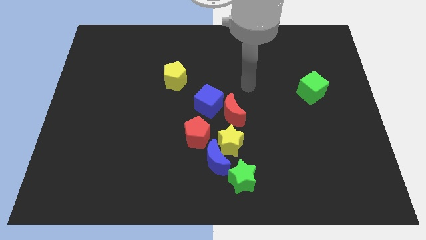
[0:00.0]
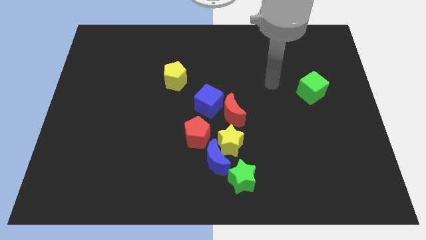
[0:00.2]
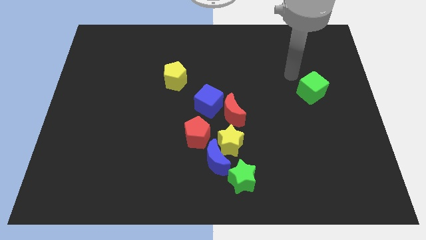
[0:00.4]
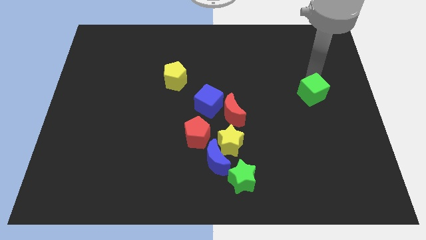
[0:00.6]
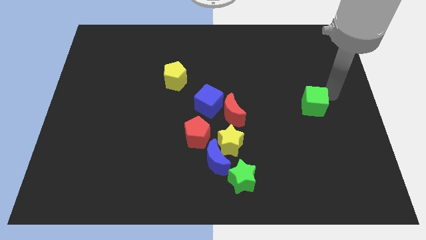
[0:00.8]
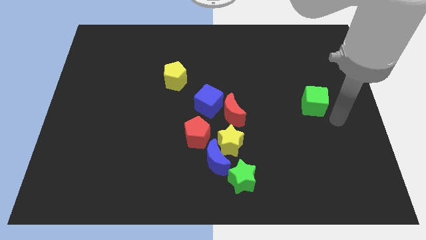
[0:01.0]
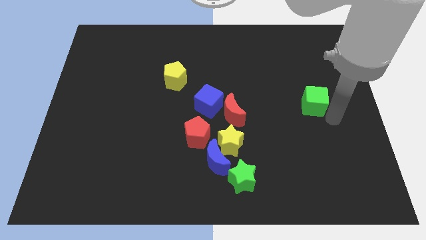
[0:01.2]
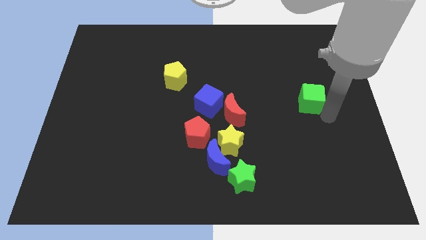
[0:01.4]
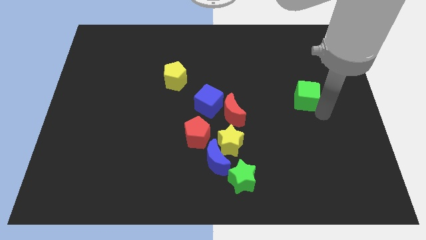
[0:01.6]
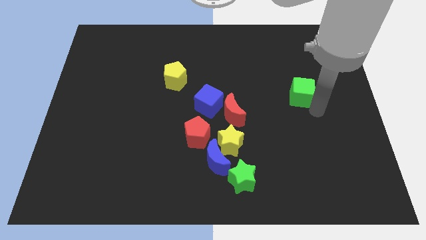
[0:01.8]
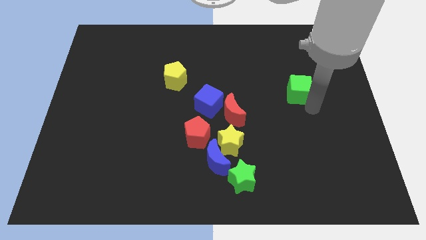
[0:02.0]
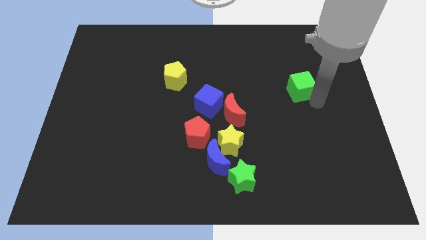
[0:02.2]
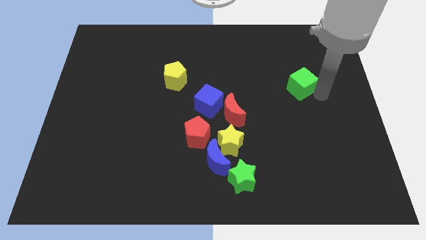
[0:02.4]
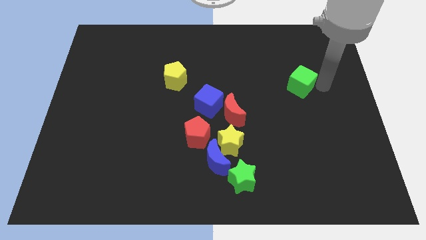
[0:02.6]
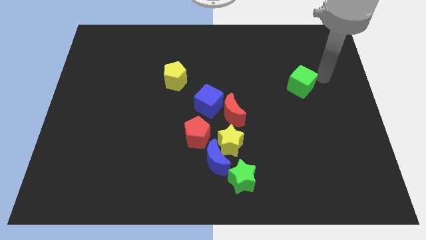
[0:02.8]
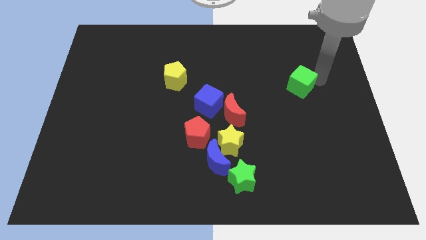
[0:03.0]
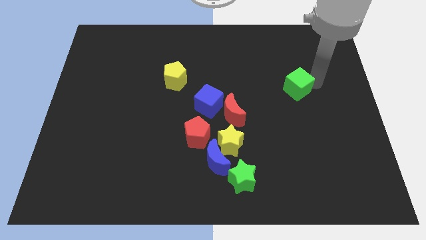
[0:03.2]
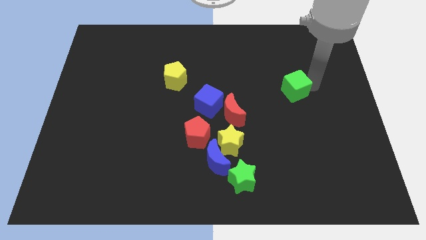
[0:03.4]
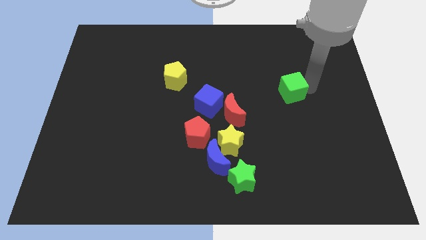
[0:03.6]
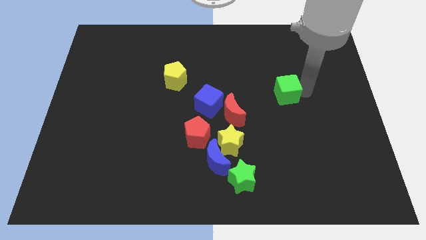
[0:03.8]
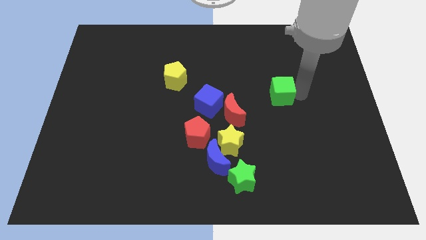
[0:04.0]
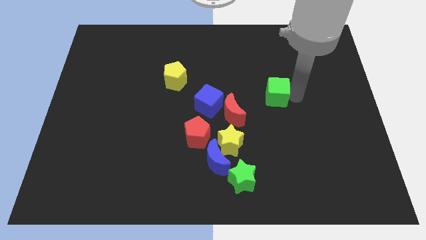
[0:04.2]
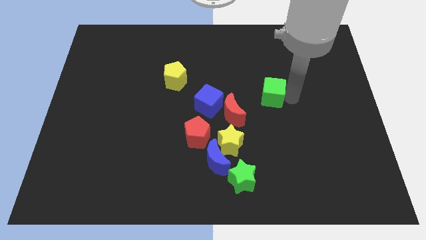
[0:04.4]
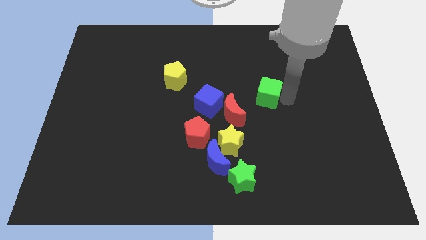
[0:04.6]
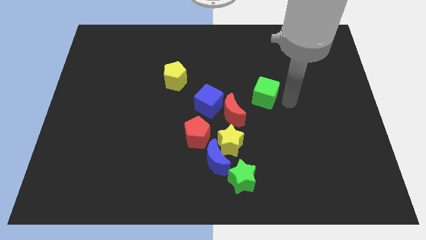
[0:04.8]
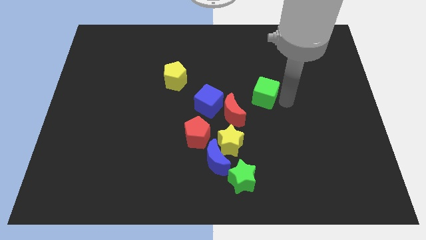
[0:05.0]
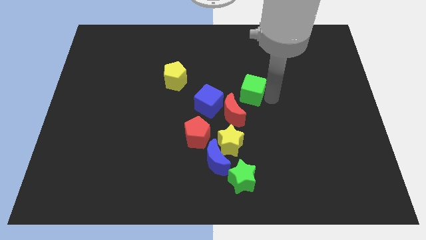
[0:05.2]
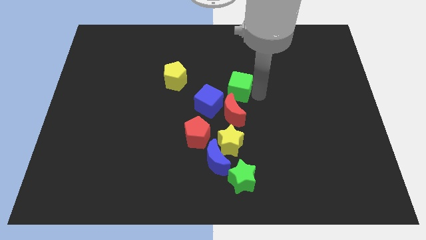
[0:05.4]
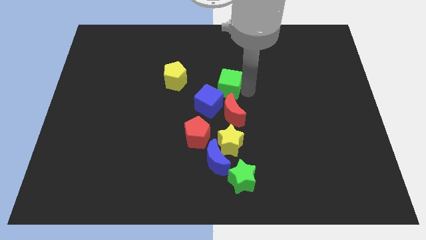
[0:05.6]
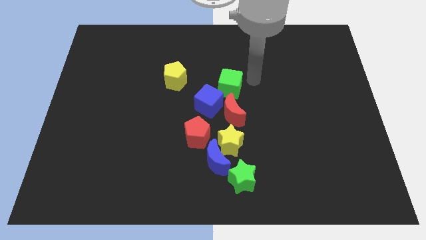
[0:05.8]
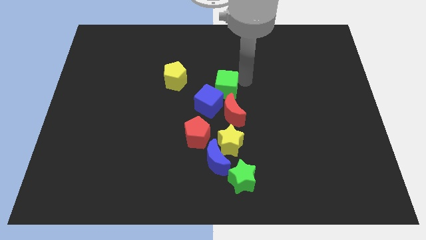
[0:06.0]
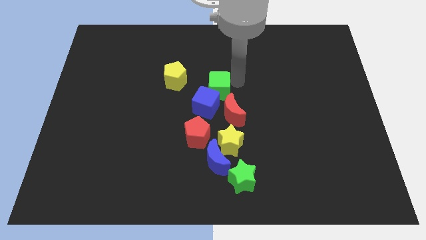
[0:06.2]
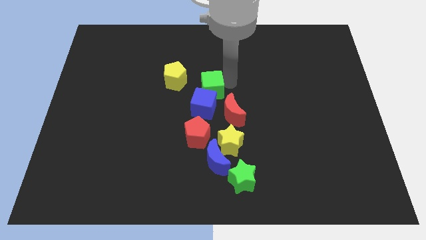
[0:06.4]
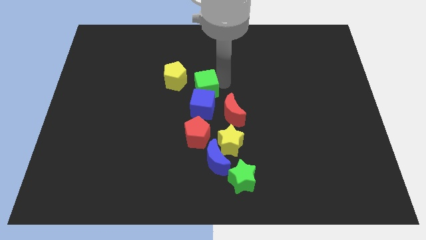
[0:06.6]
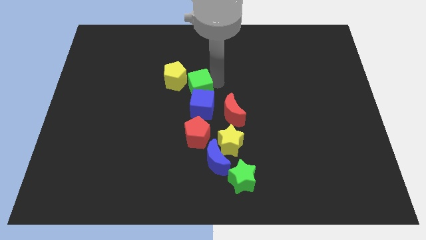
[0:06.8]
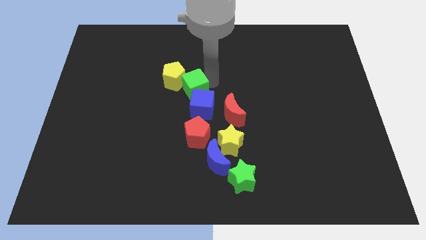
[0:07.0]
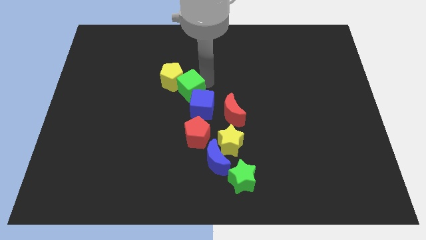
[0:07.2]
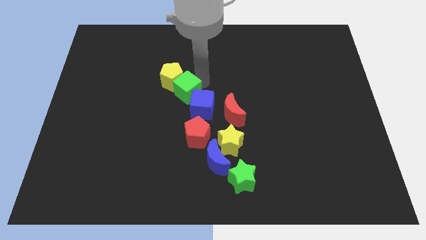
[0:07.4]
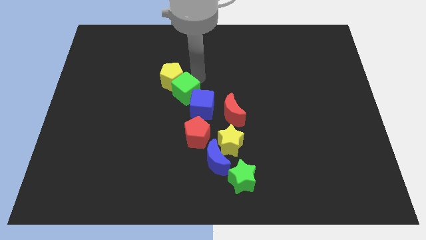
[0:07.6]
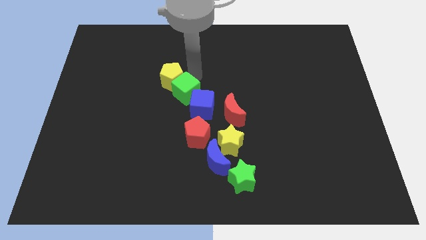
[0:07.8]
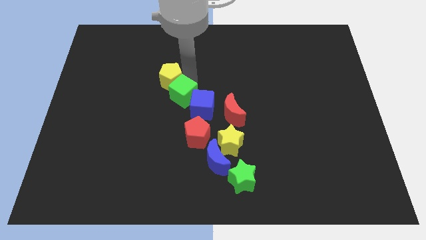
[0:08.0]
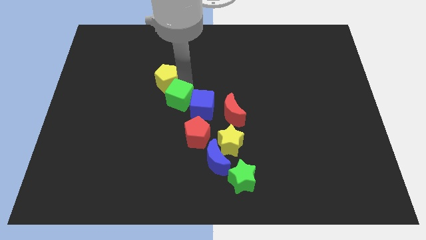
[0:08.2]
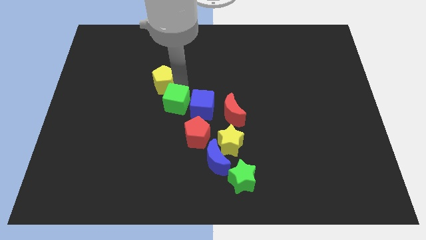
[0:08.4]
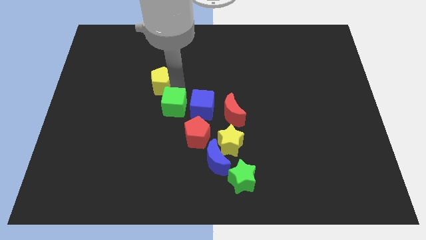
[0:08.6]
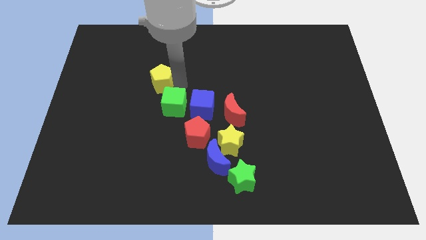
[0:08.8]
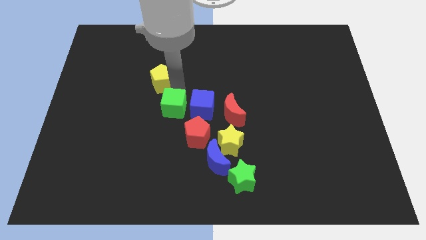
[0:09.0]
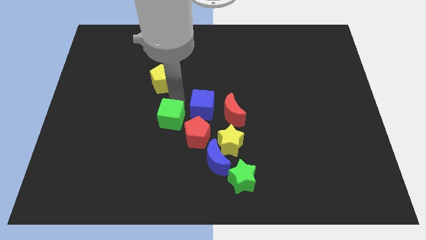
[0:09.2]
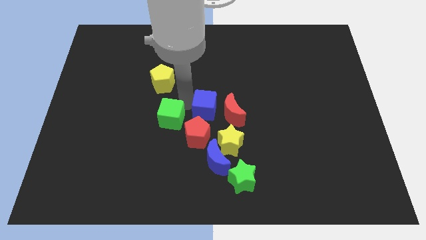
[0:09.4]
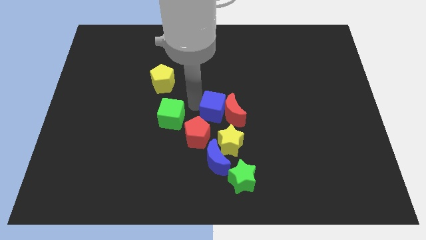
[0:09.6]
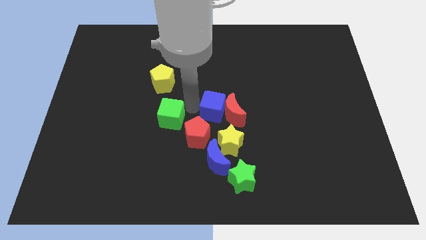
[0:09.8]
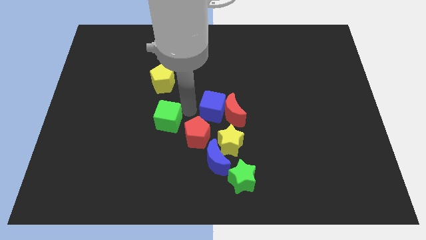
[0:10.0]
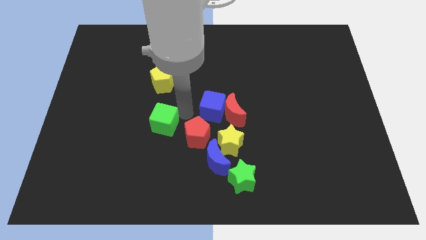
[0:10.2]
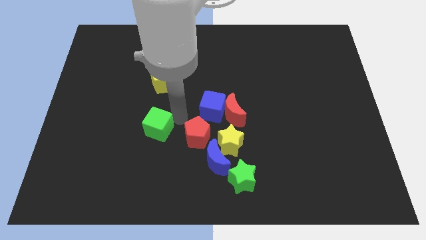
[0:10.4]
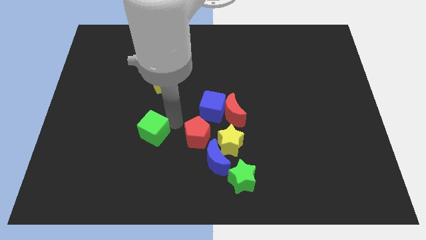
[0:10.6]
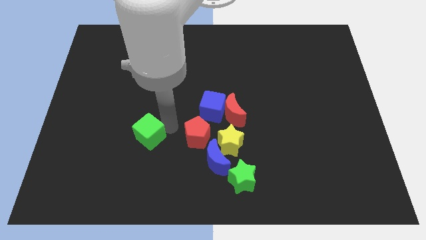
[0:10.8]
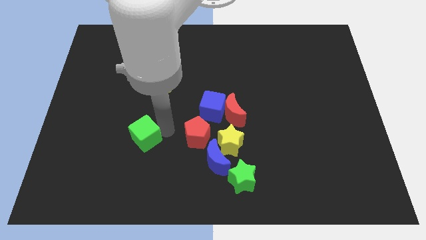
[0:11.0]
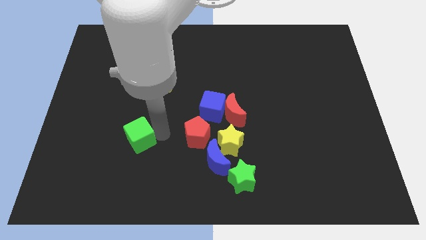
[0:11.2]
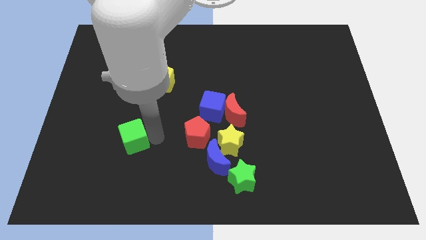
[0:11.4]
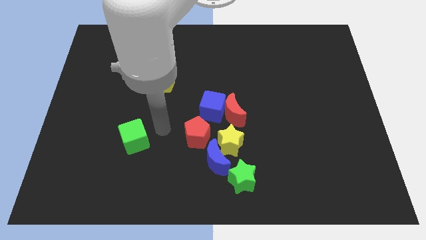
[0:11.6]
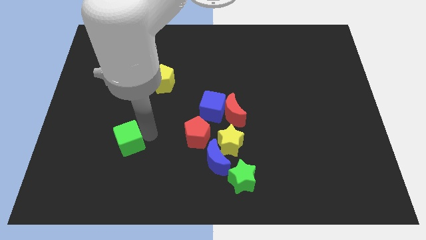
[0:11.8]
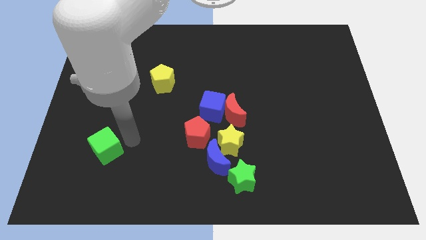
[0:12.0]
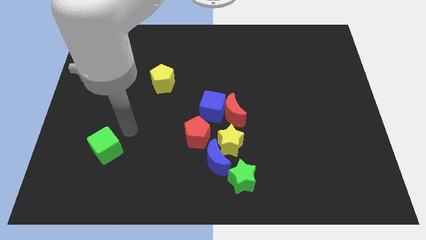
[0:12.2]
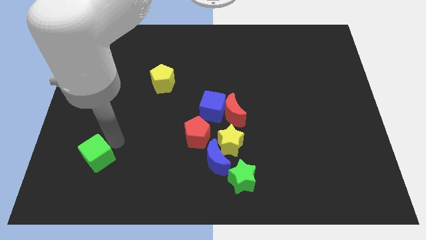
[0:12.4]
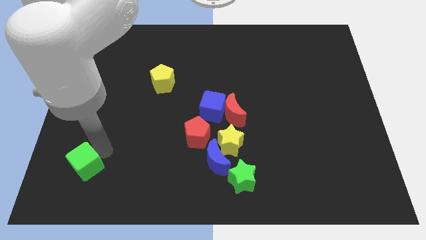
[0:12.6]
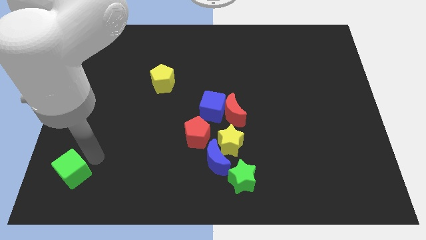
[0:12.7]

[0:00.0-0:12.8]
put the green cube to the bottom left of the board

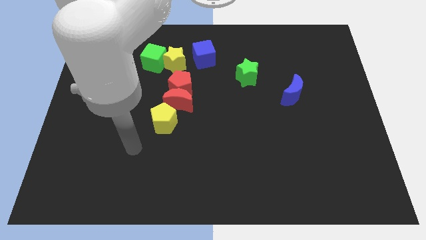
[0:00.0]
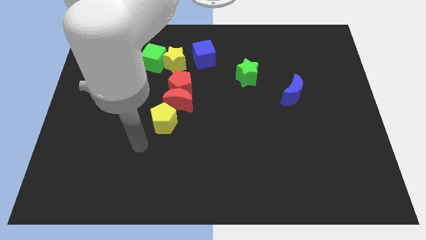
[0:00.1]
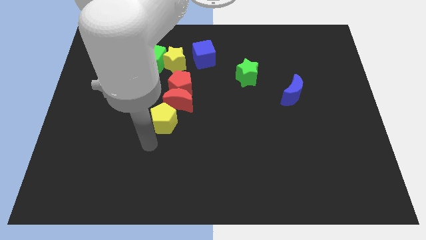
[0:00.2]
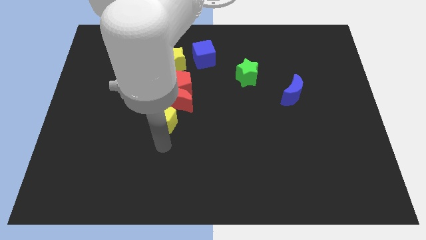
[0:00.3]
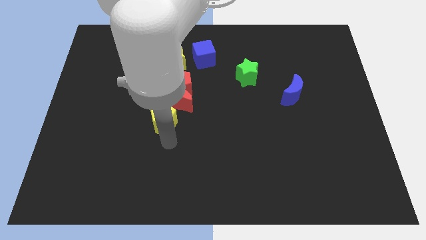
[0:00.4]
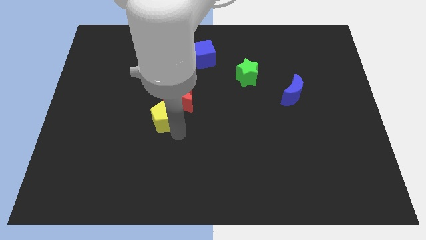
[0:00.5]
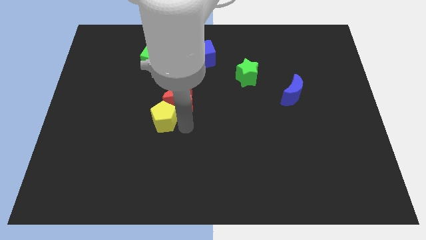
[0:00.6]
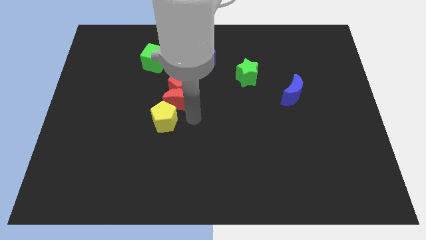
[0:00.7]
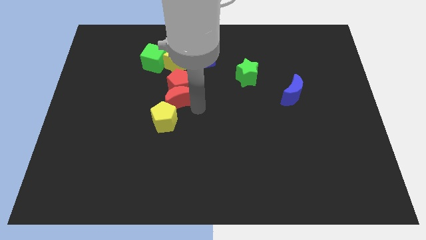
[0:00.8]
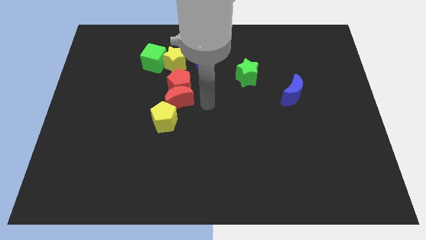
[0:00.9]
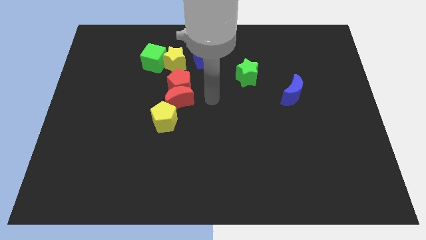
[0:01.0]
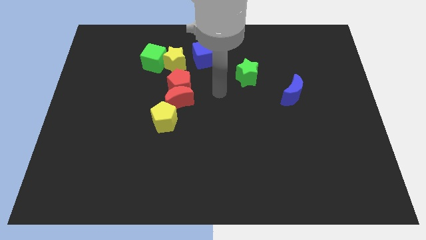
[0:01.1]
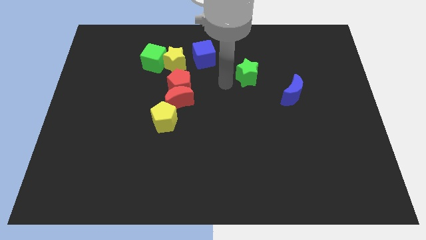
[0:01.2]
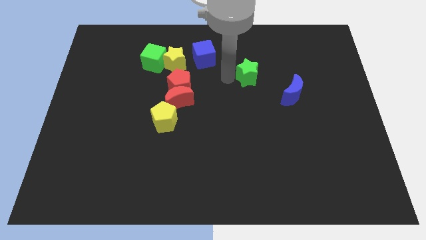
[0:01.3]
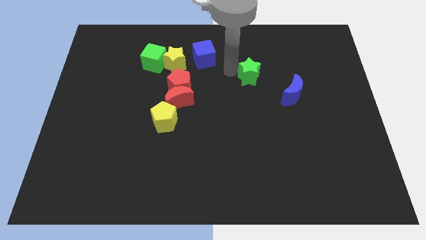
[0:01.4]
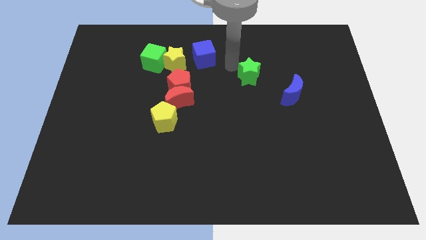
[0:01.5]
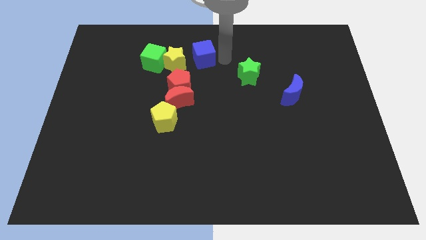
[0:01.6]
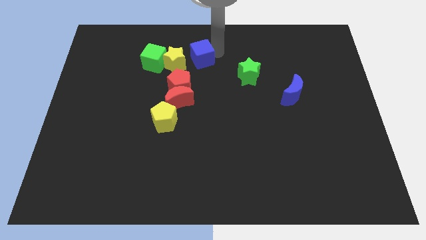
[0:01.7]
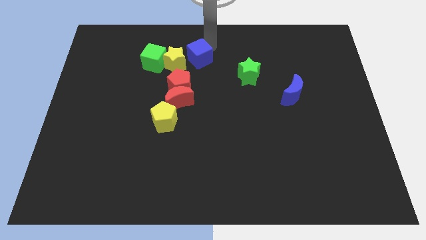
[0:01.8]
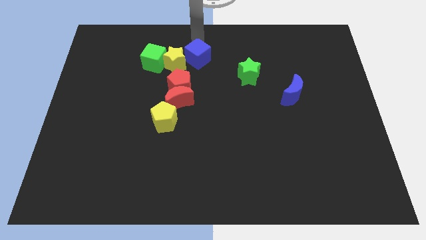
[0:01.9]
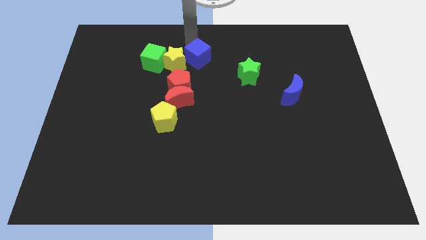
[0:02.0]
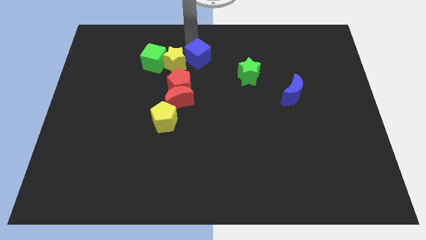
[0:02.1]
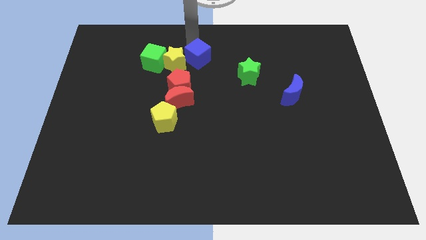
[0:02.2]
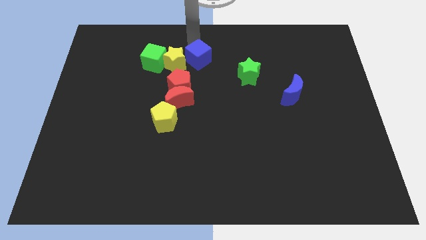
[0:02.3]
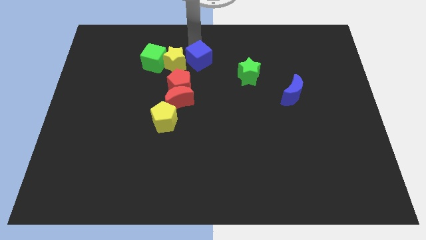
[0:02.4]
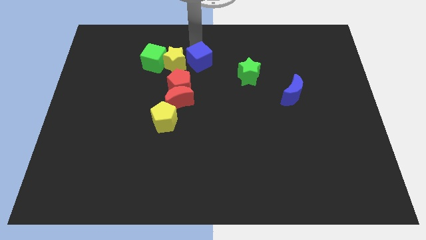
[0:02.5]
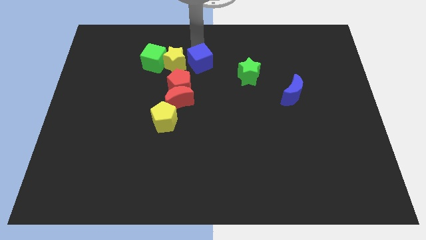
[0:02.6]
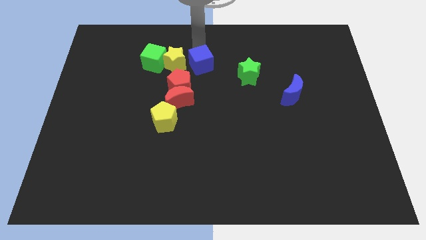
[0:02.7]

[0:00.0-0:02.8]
slide the blue cube to the center
